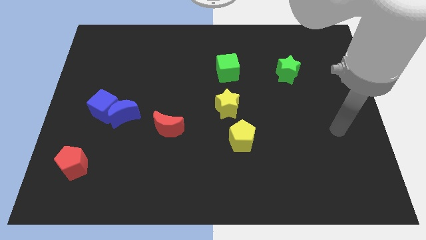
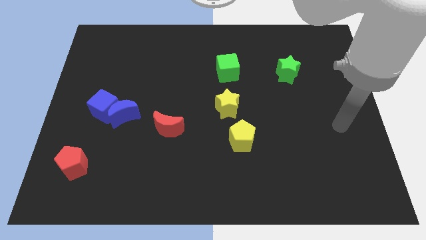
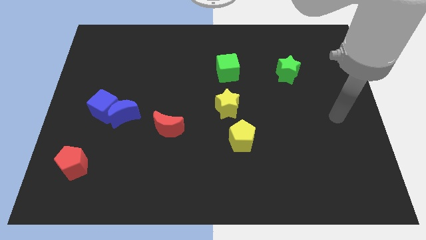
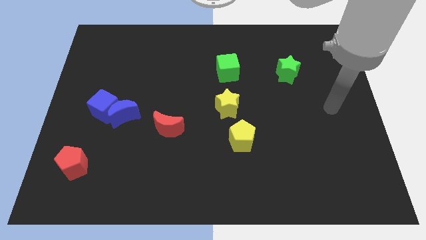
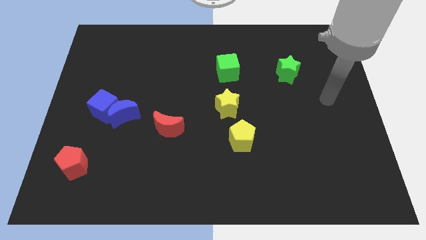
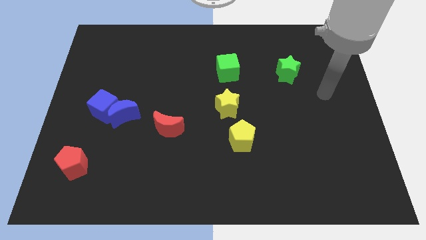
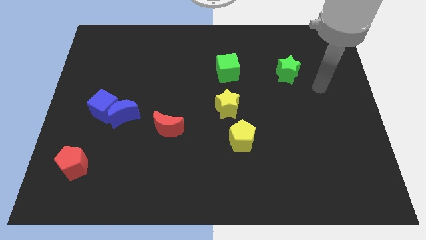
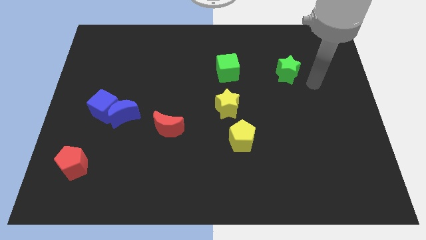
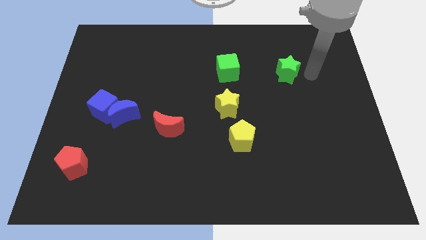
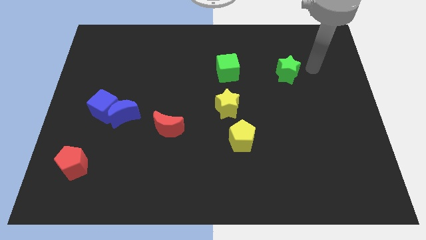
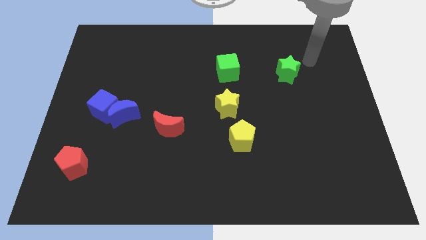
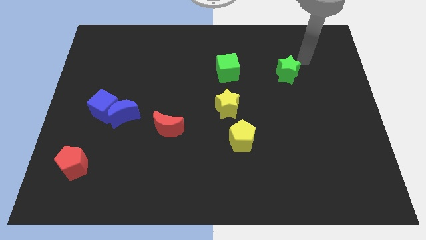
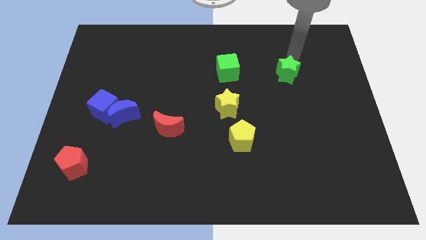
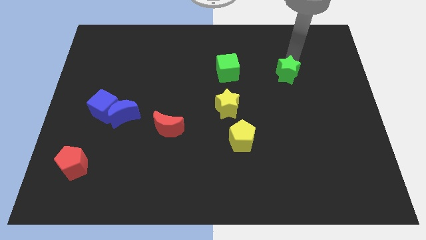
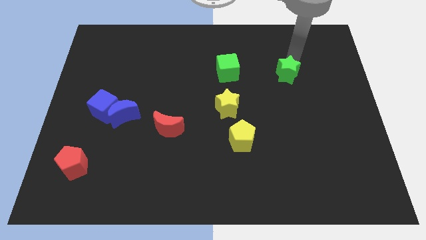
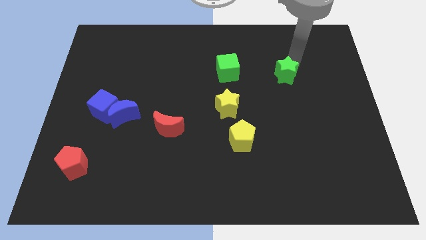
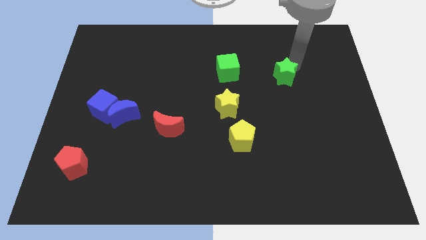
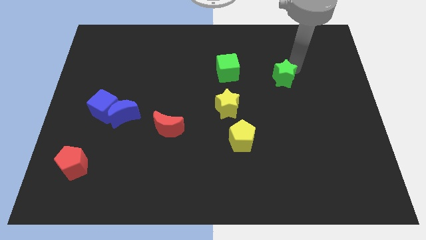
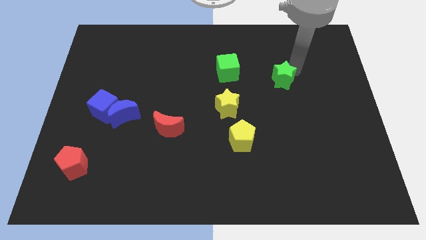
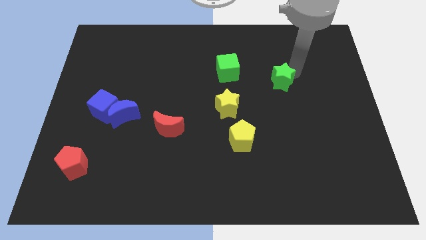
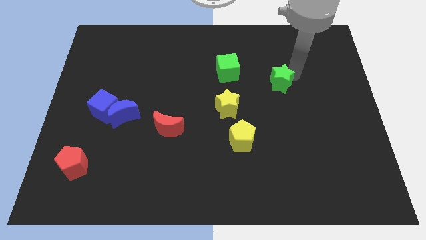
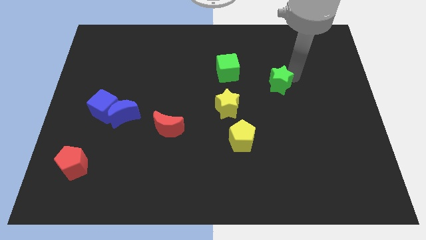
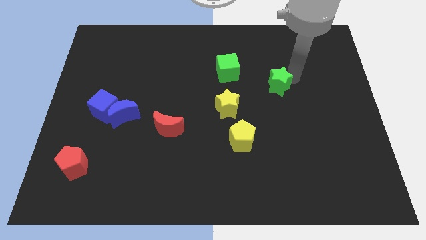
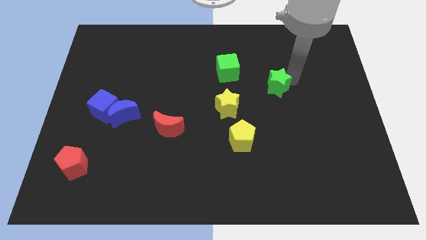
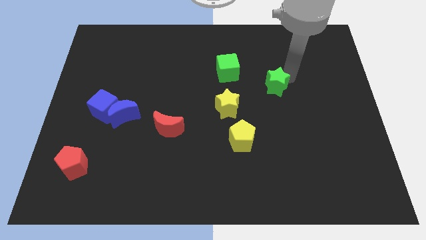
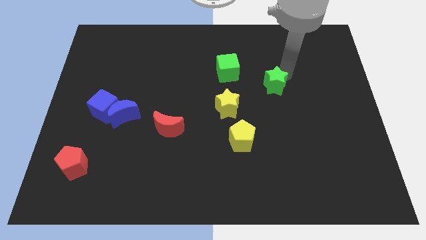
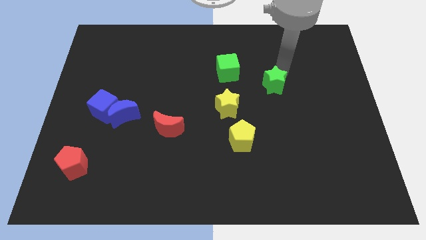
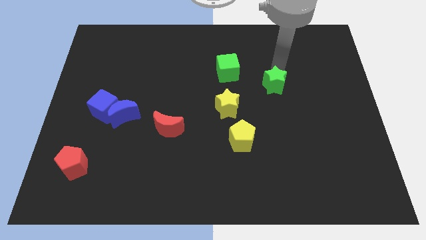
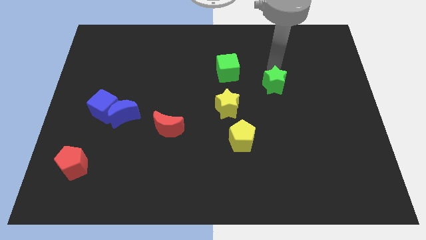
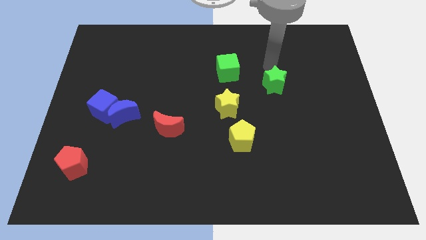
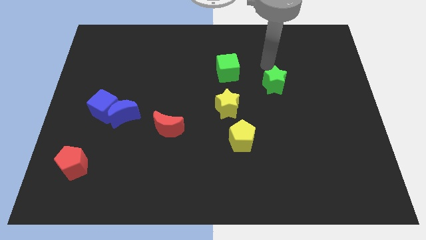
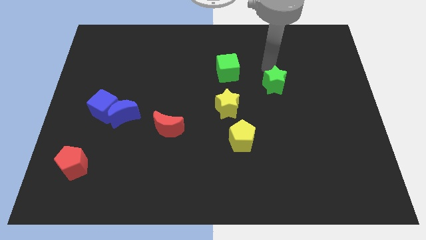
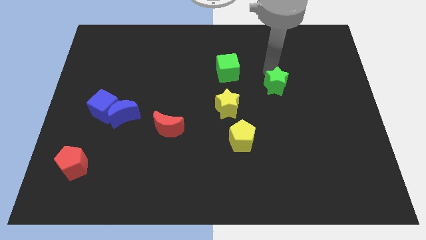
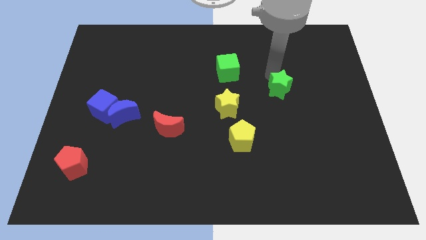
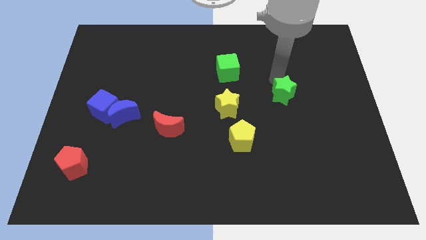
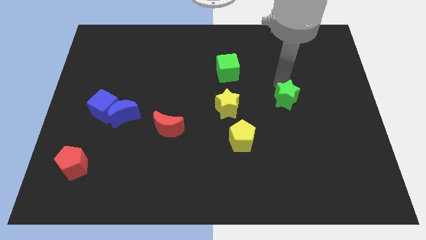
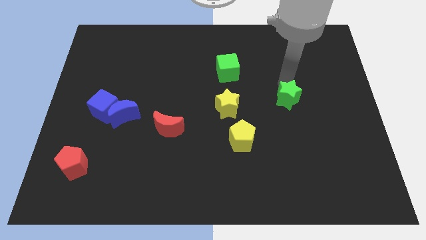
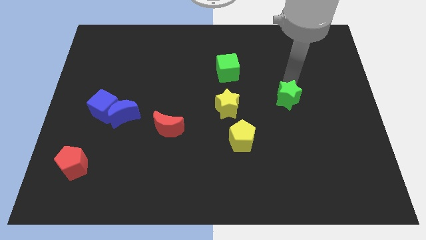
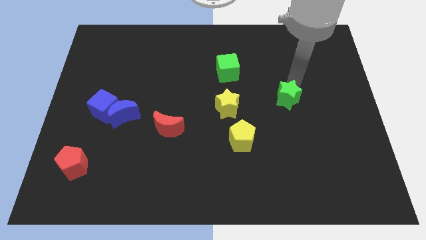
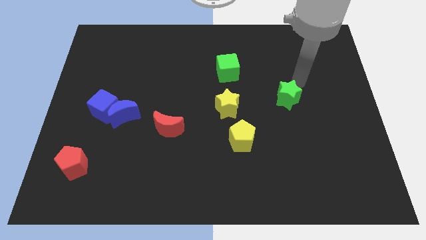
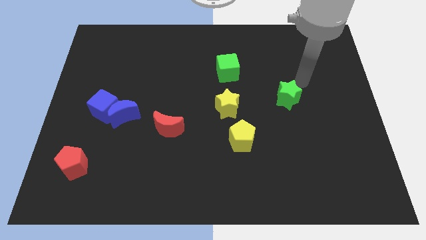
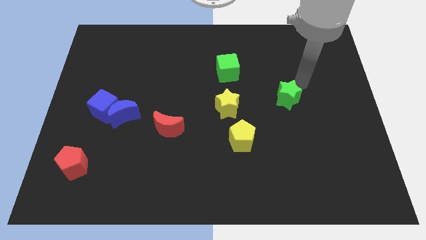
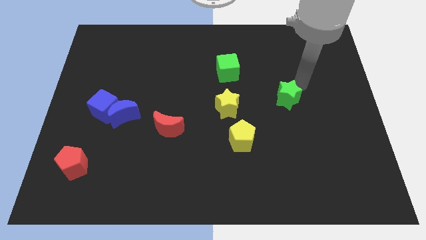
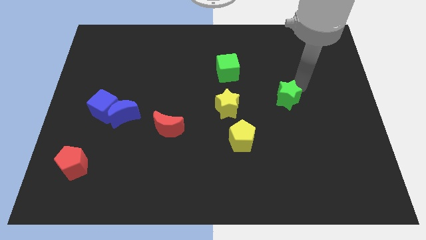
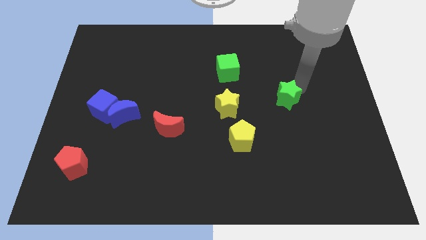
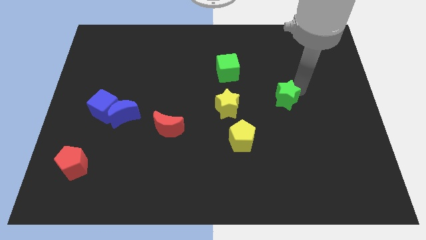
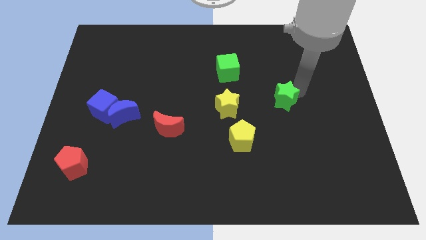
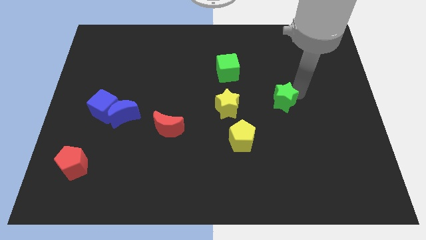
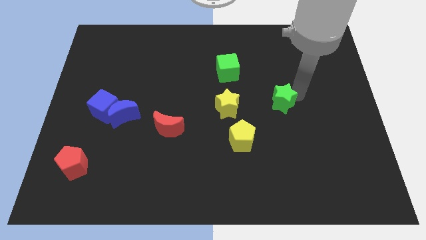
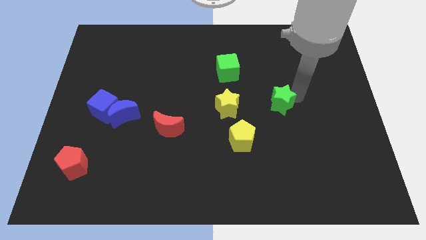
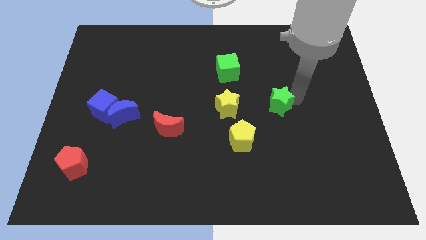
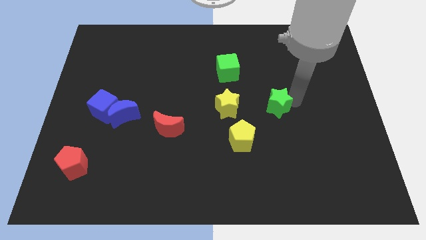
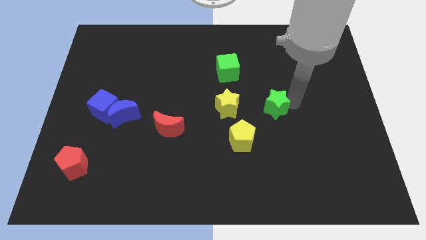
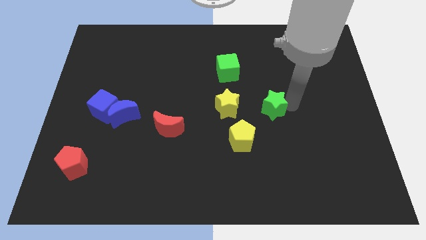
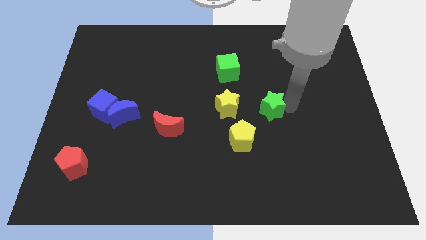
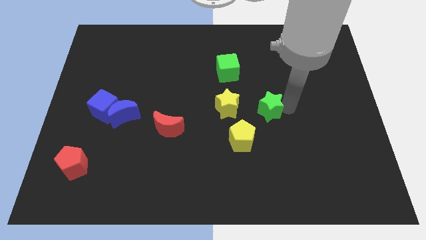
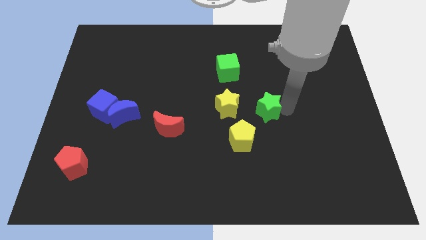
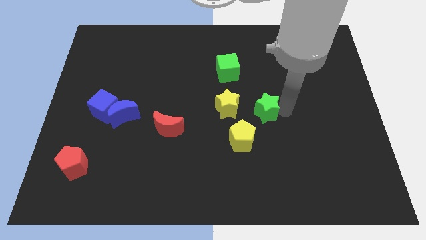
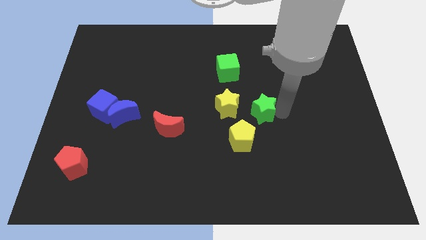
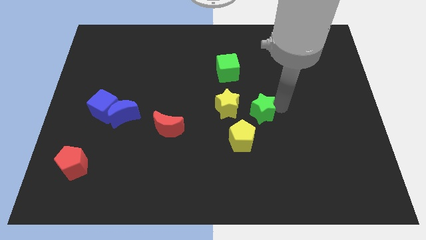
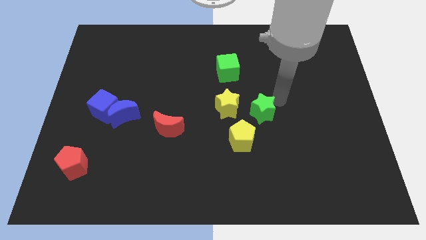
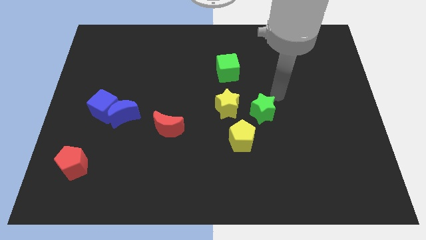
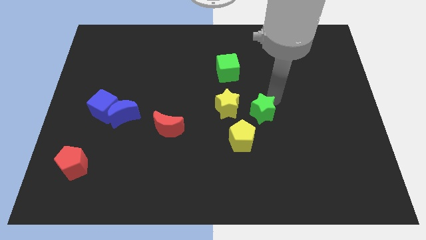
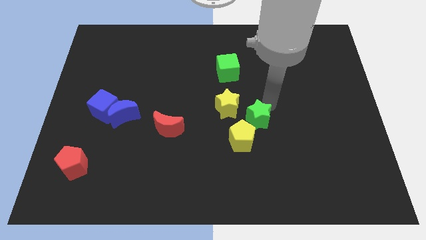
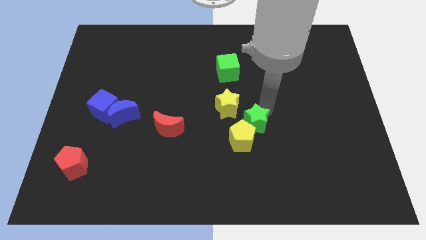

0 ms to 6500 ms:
push the green star close to the yellow pentagon

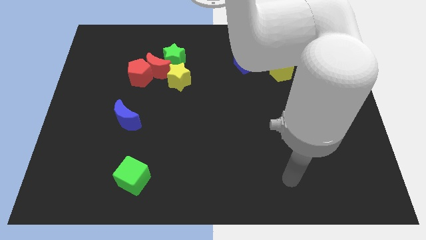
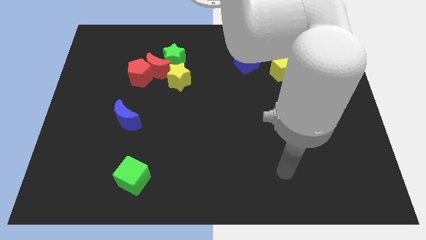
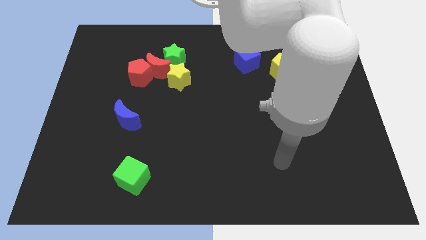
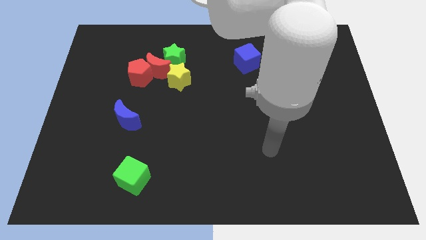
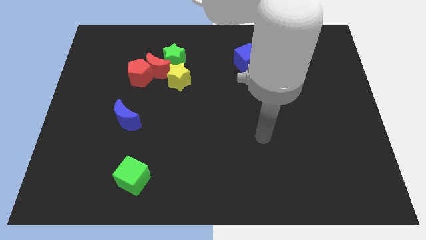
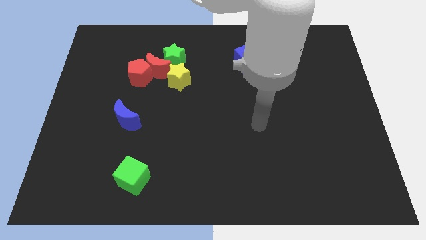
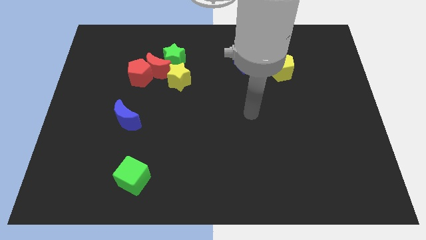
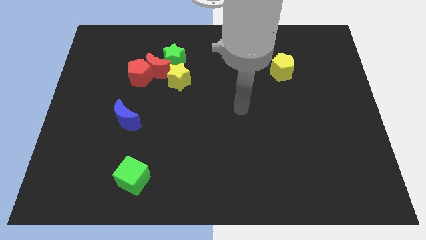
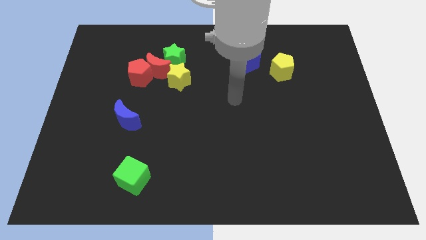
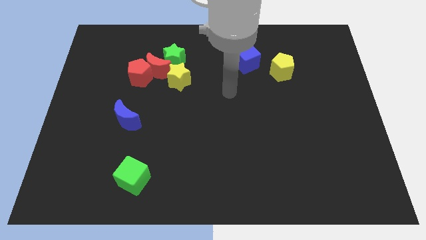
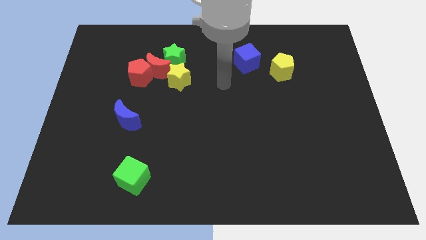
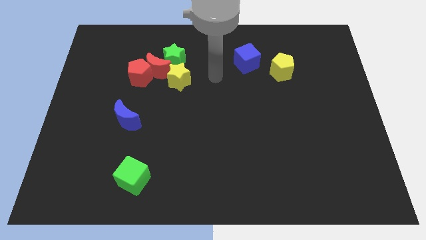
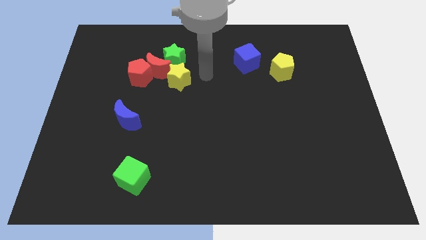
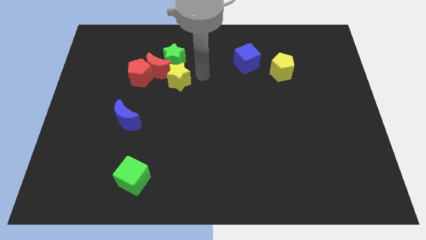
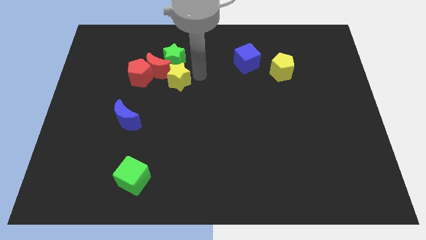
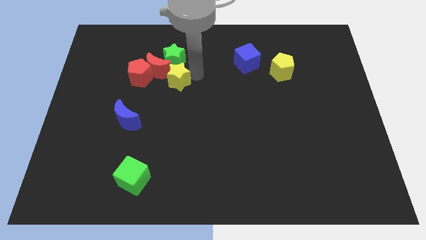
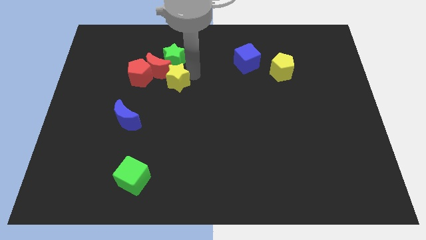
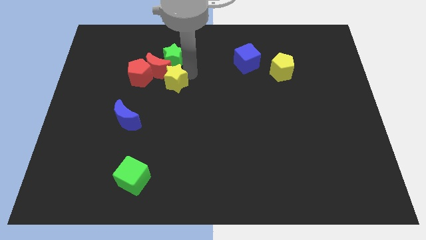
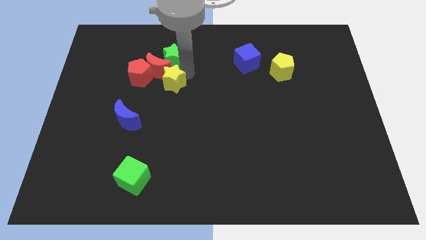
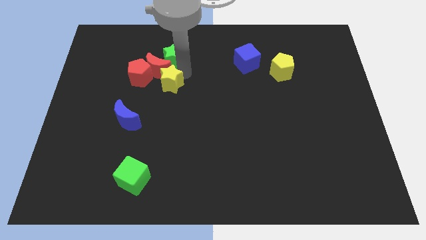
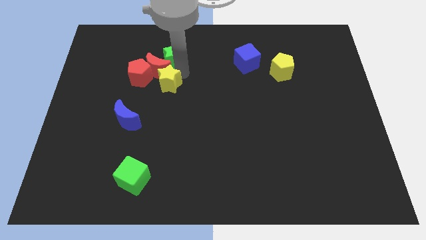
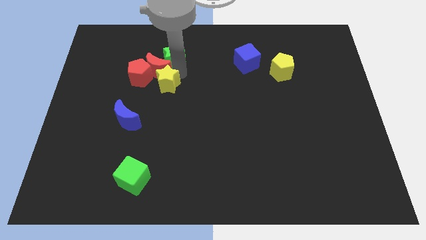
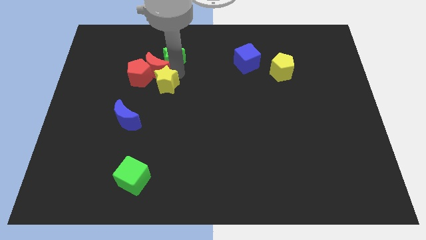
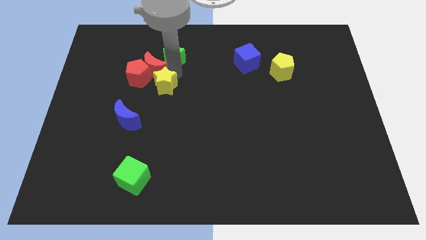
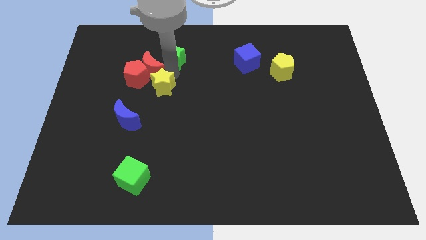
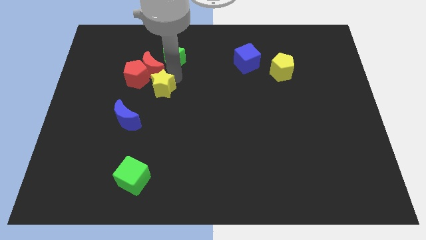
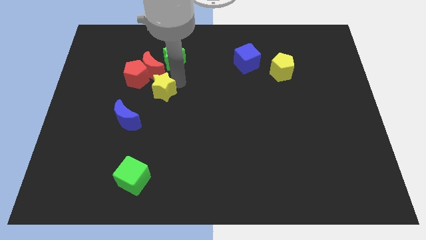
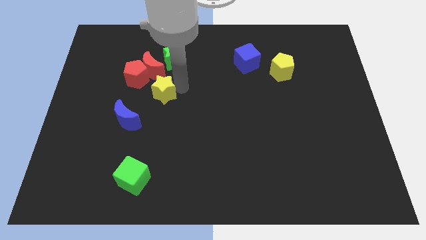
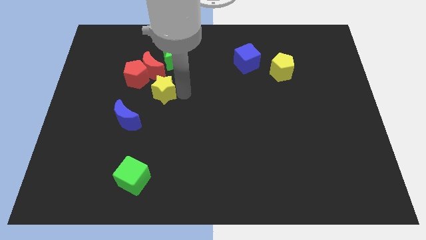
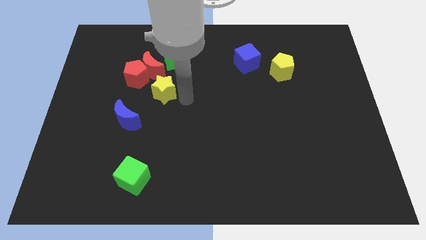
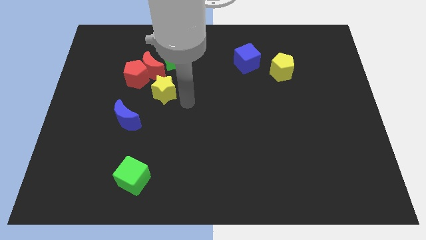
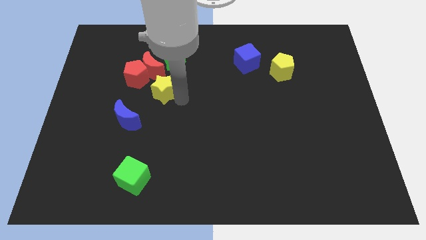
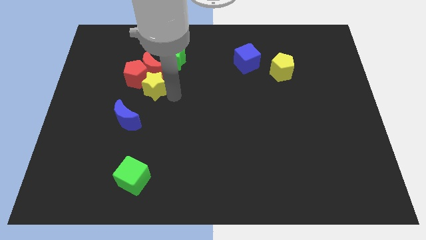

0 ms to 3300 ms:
push the yellow star to the red pentagon
